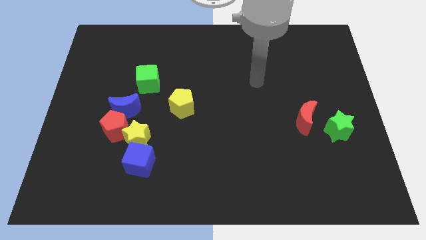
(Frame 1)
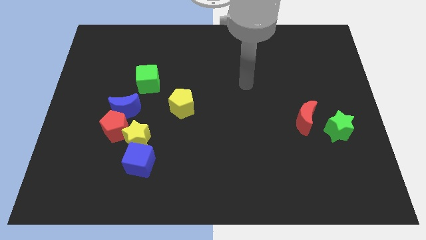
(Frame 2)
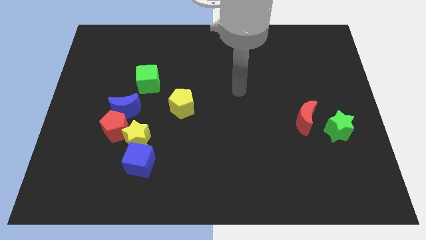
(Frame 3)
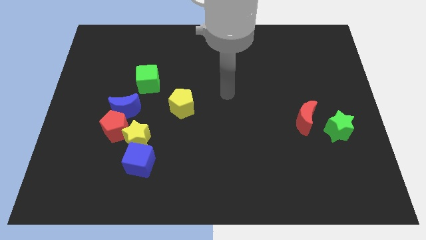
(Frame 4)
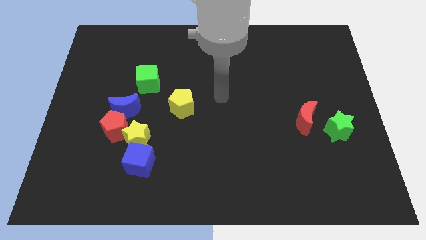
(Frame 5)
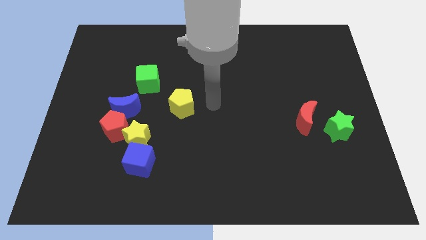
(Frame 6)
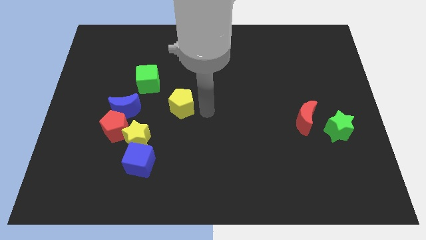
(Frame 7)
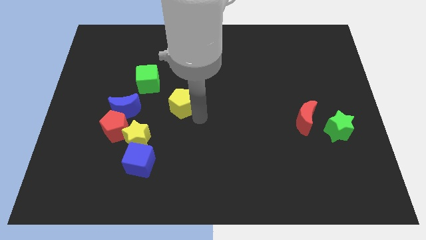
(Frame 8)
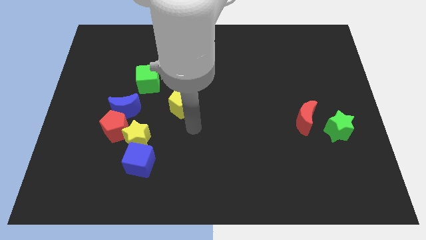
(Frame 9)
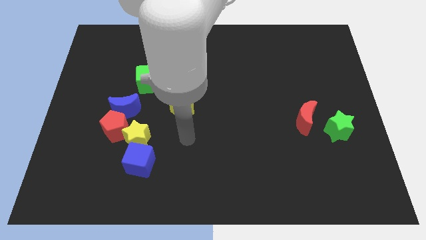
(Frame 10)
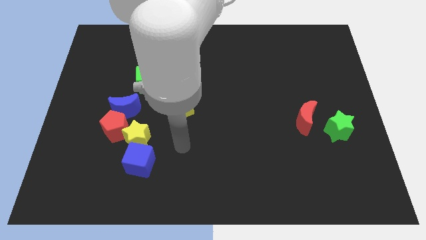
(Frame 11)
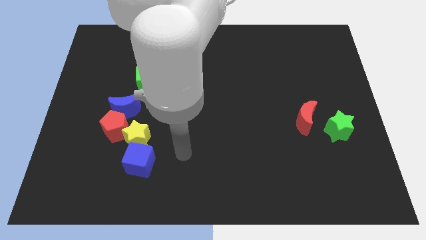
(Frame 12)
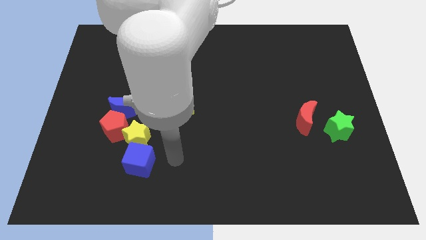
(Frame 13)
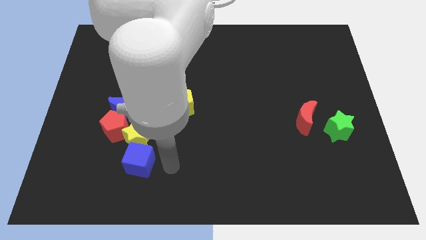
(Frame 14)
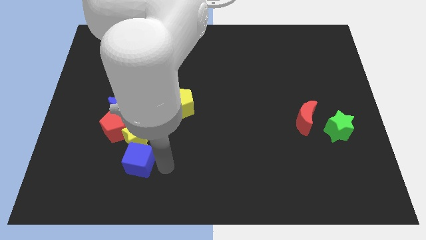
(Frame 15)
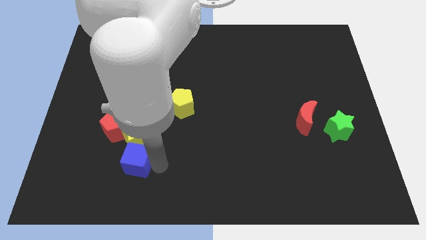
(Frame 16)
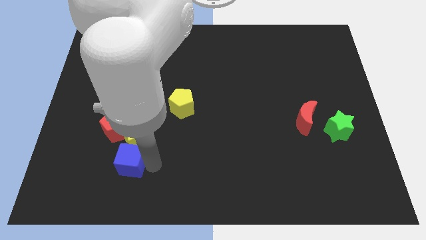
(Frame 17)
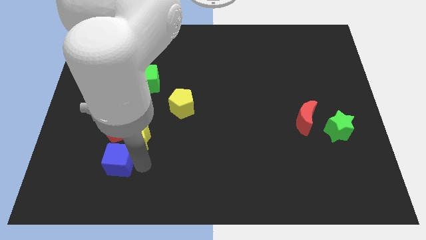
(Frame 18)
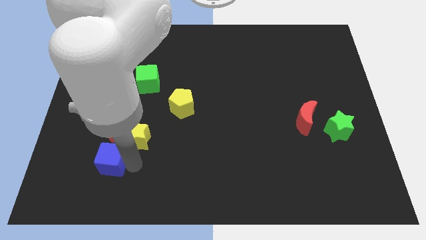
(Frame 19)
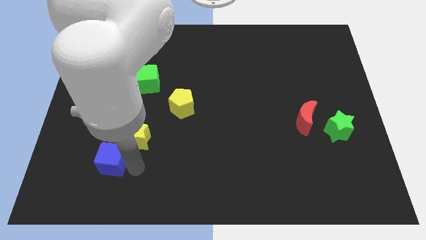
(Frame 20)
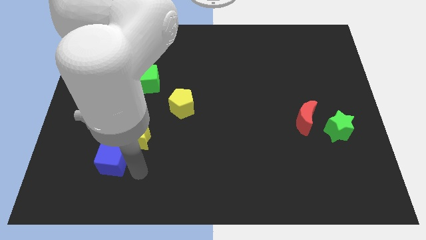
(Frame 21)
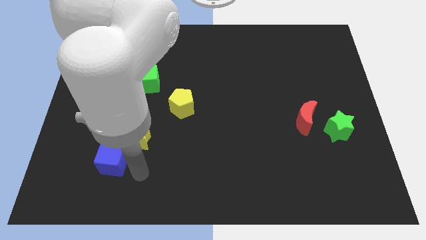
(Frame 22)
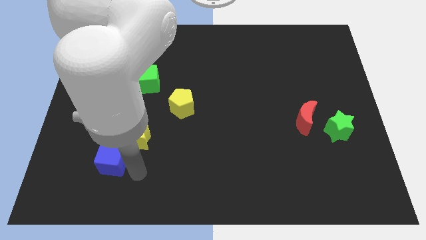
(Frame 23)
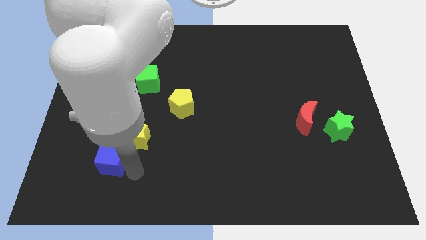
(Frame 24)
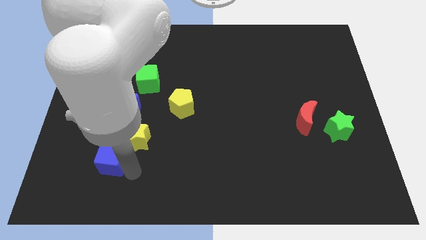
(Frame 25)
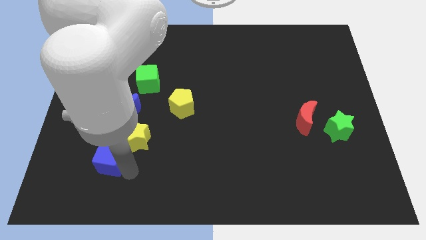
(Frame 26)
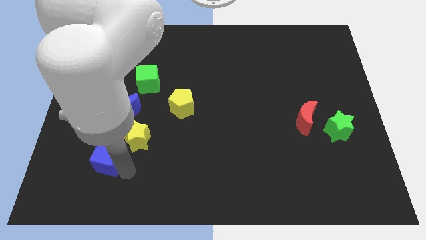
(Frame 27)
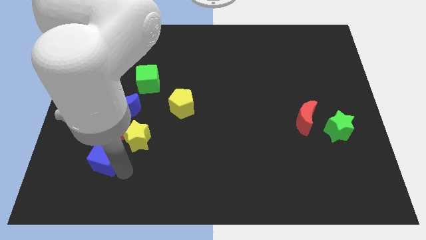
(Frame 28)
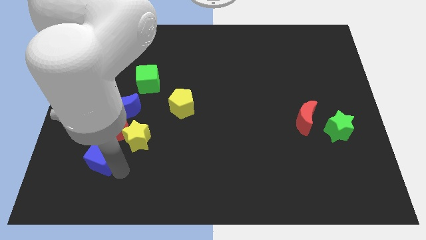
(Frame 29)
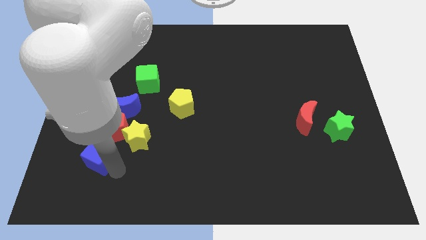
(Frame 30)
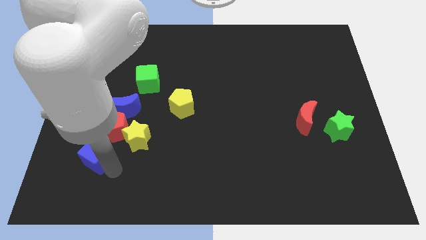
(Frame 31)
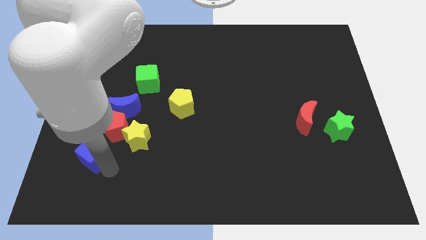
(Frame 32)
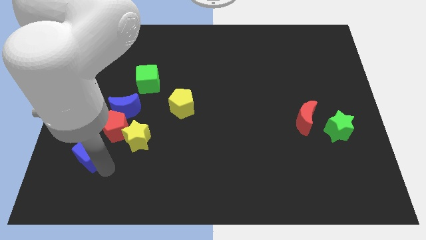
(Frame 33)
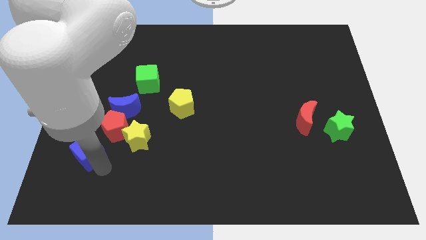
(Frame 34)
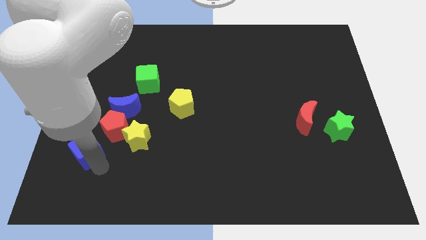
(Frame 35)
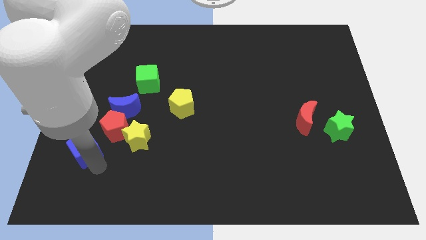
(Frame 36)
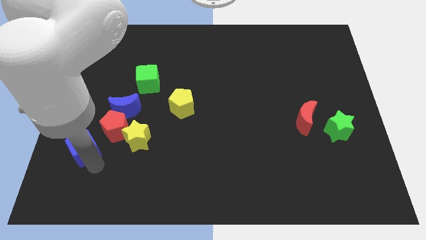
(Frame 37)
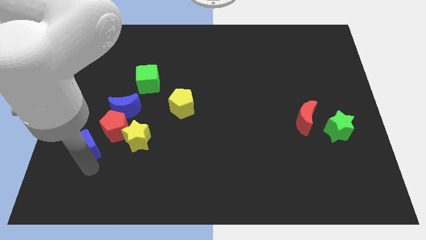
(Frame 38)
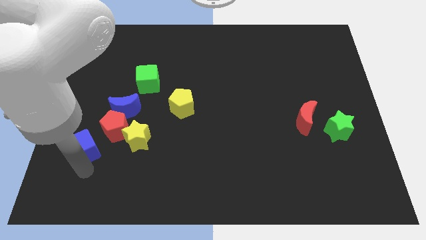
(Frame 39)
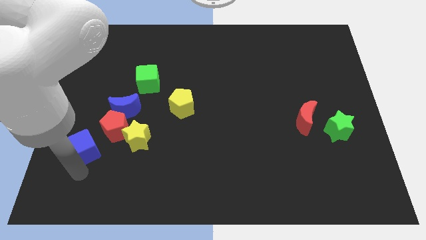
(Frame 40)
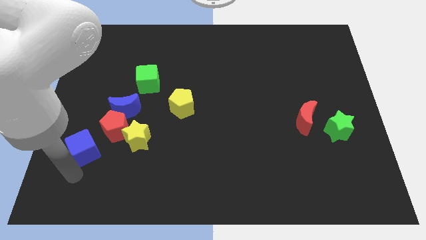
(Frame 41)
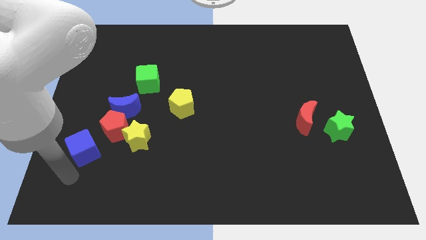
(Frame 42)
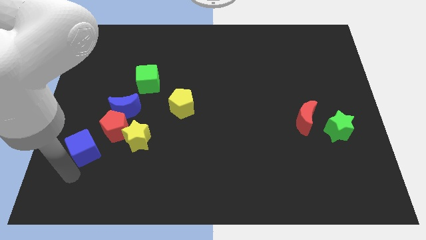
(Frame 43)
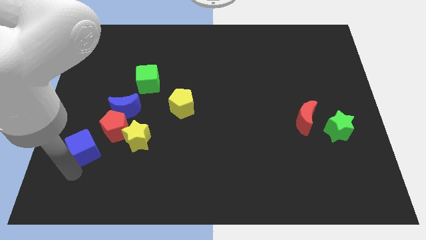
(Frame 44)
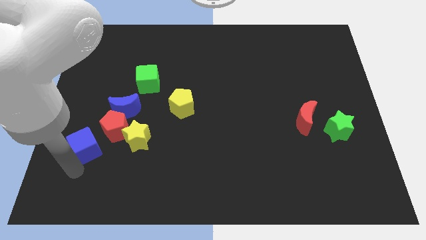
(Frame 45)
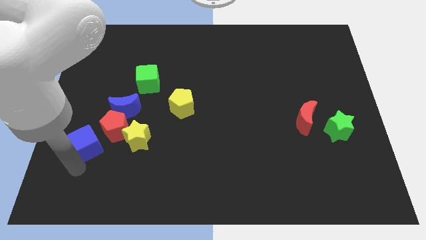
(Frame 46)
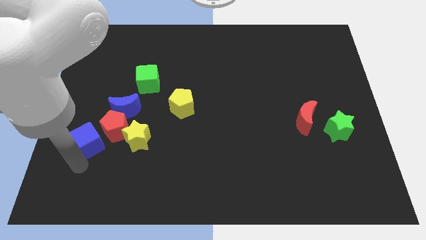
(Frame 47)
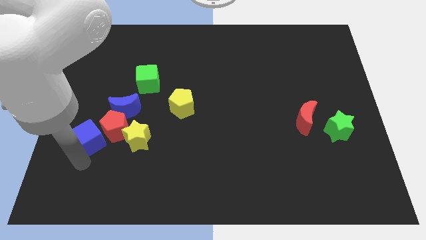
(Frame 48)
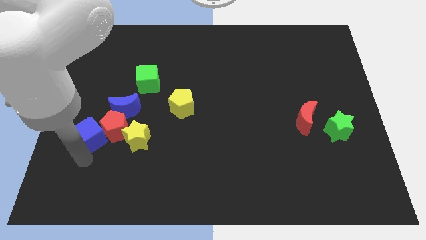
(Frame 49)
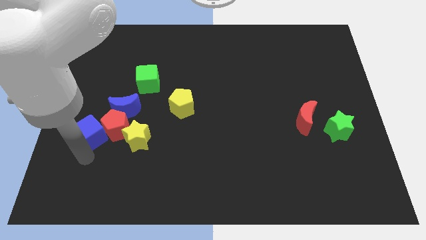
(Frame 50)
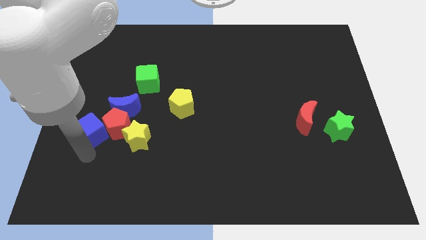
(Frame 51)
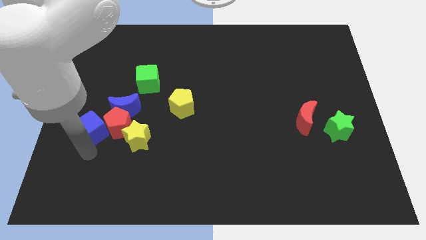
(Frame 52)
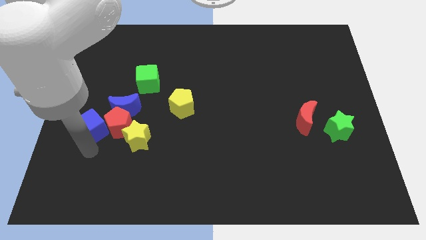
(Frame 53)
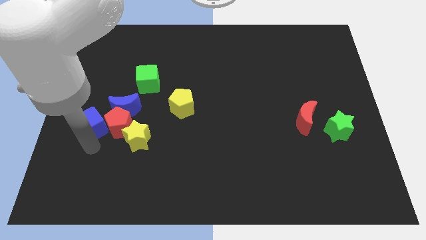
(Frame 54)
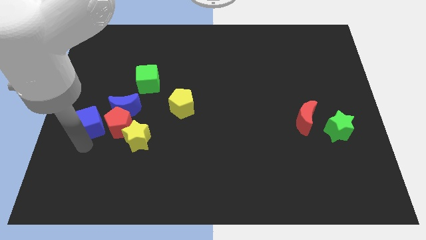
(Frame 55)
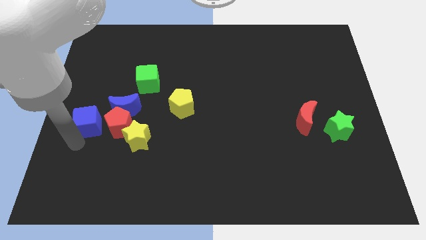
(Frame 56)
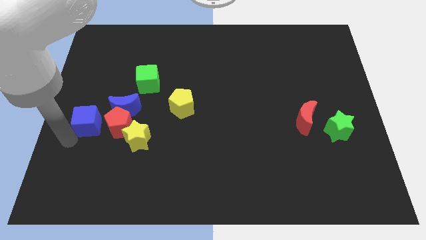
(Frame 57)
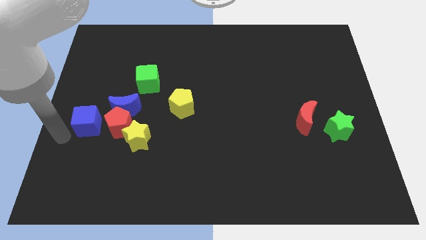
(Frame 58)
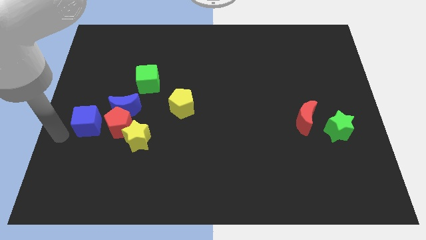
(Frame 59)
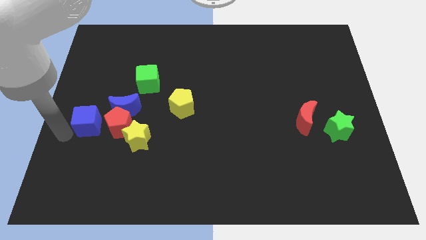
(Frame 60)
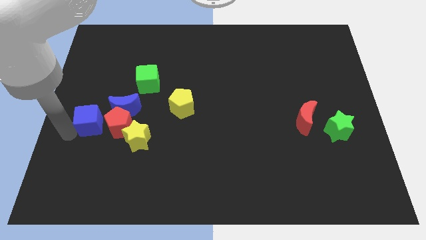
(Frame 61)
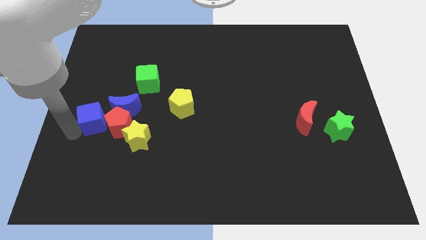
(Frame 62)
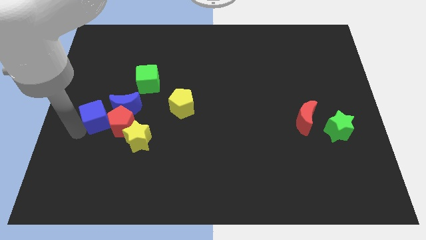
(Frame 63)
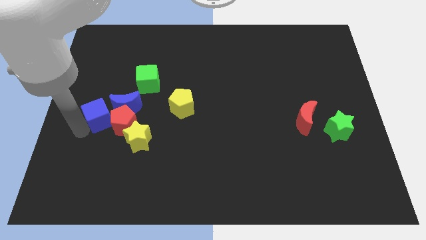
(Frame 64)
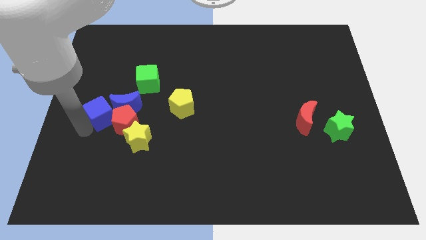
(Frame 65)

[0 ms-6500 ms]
put the blue cube to the blue moon

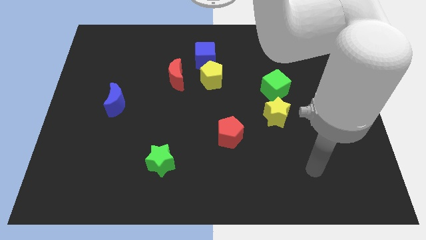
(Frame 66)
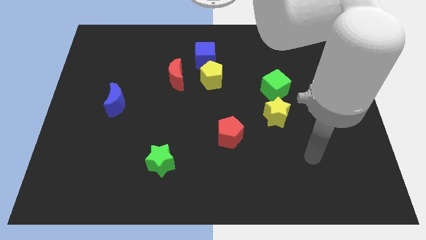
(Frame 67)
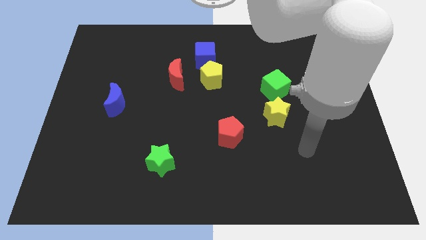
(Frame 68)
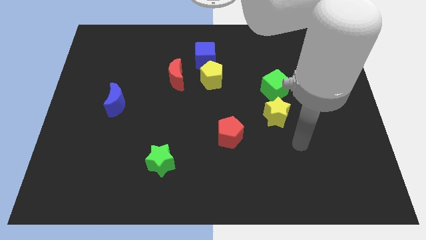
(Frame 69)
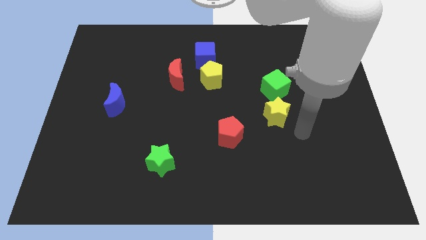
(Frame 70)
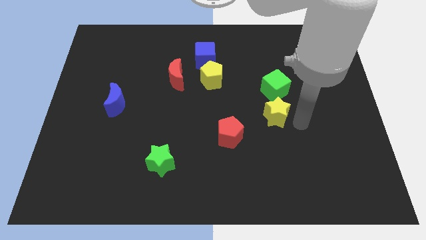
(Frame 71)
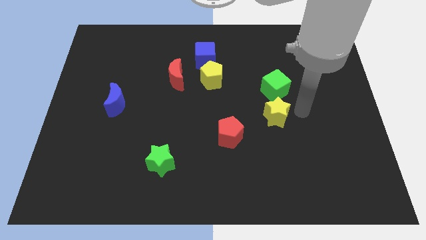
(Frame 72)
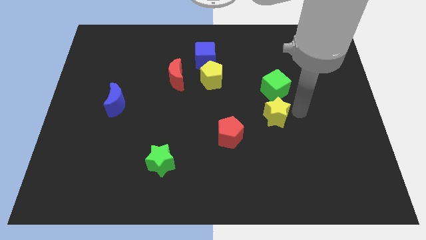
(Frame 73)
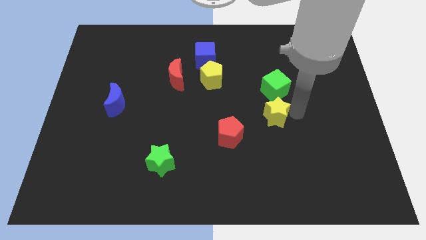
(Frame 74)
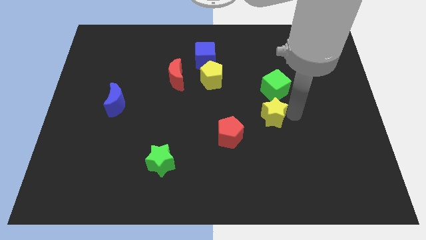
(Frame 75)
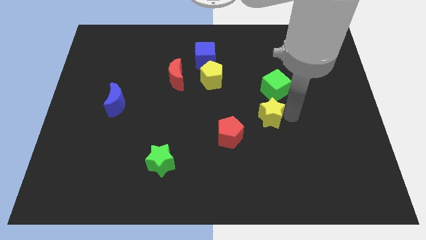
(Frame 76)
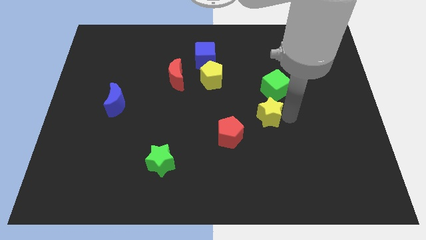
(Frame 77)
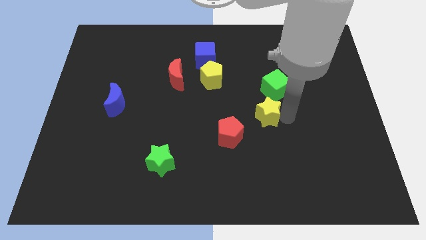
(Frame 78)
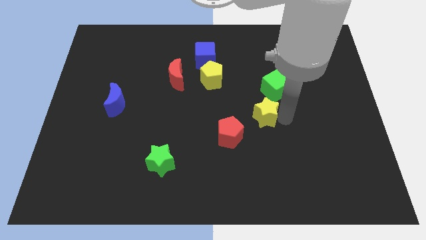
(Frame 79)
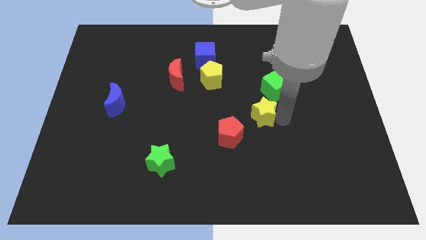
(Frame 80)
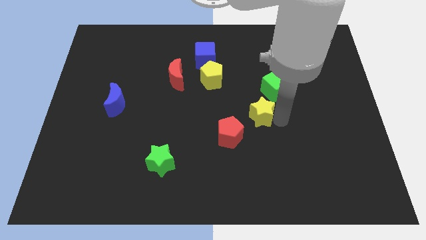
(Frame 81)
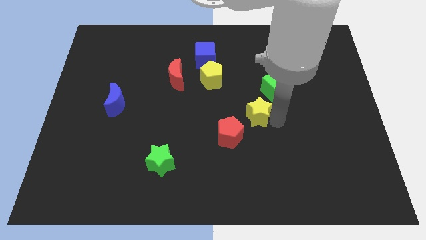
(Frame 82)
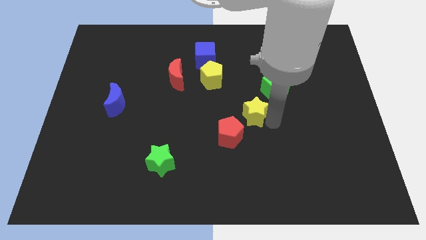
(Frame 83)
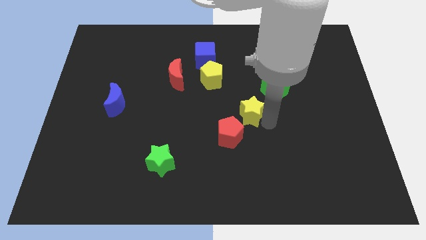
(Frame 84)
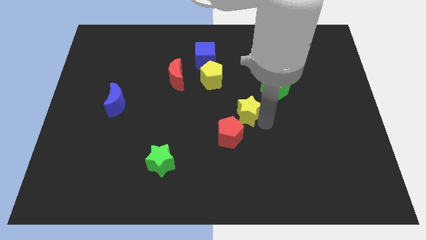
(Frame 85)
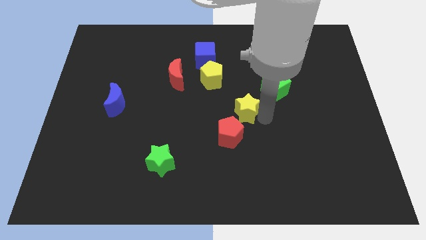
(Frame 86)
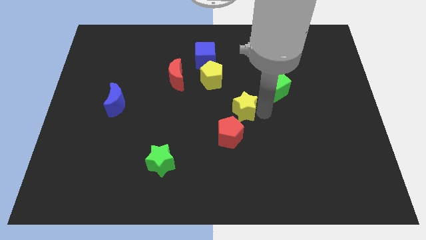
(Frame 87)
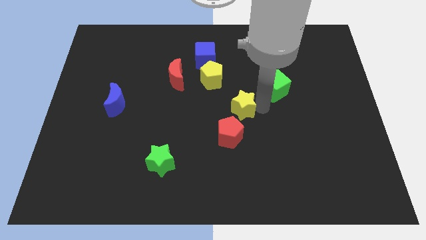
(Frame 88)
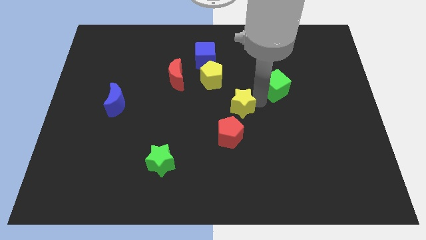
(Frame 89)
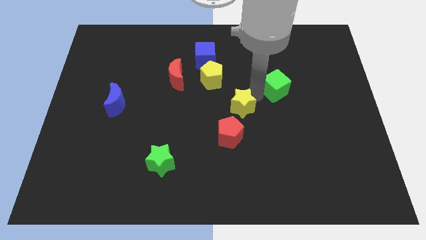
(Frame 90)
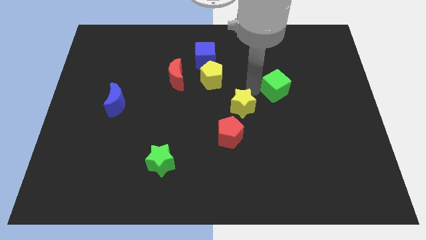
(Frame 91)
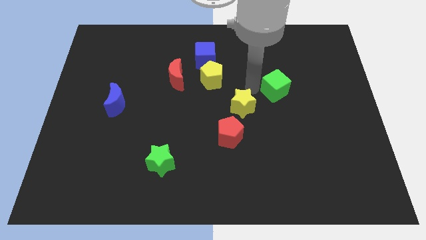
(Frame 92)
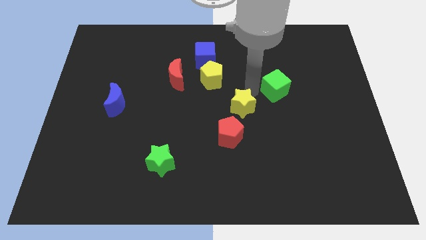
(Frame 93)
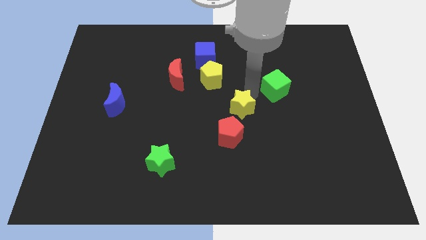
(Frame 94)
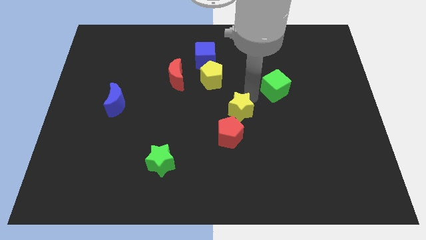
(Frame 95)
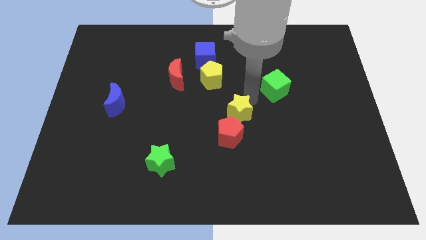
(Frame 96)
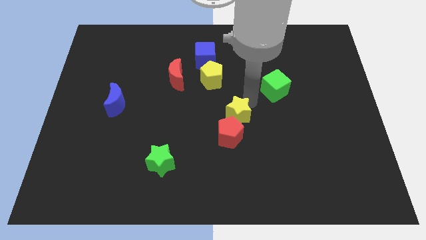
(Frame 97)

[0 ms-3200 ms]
push the yellow star next to the red pentagon
